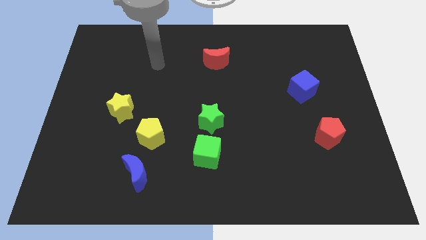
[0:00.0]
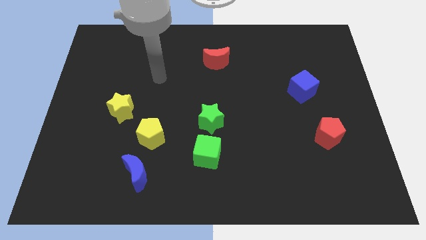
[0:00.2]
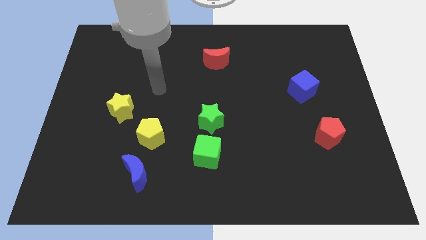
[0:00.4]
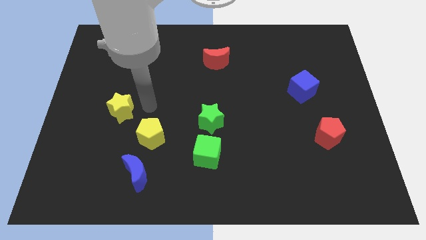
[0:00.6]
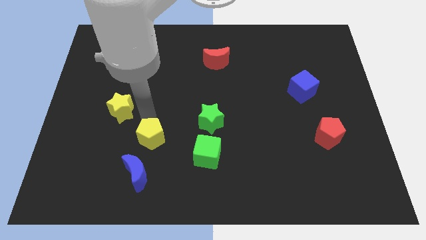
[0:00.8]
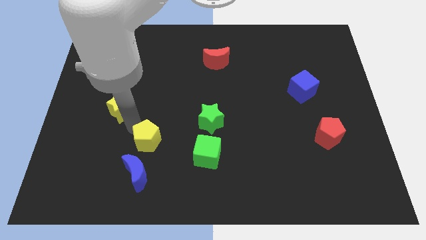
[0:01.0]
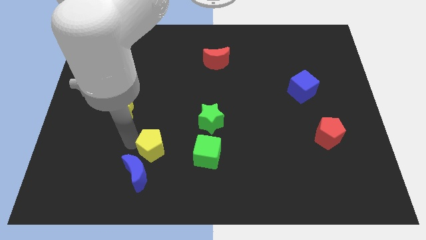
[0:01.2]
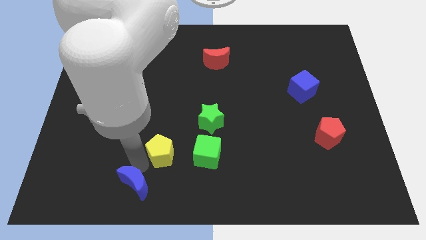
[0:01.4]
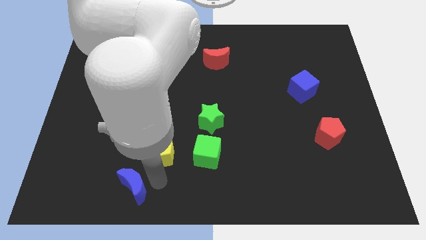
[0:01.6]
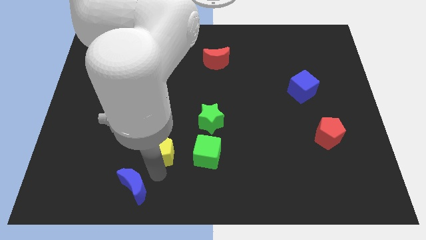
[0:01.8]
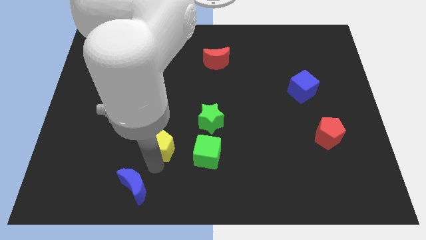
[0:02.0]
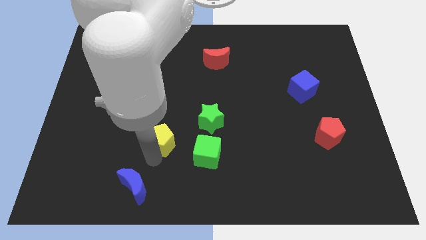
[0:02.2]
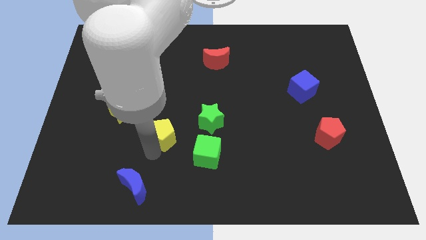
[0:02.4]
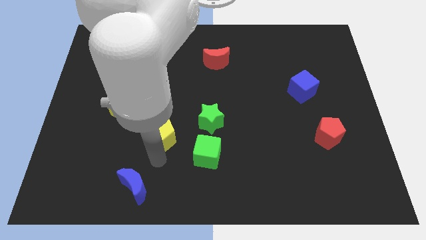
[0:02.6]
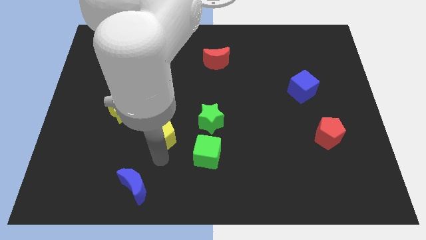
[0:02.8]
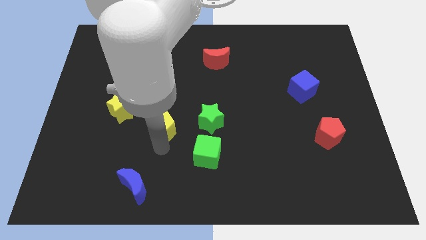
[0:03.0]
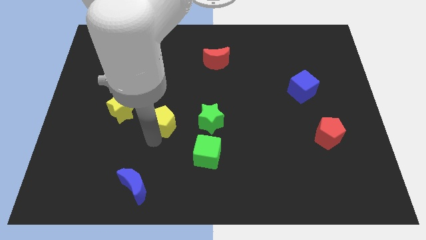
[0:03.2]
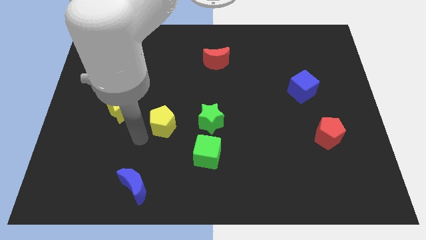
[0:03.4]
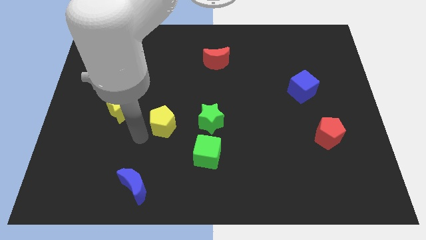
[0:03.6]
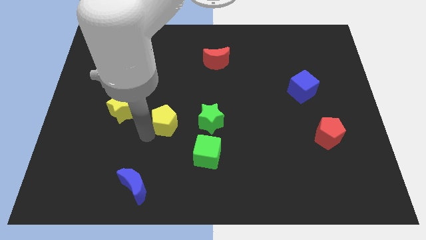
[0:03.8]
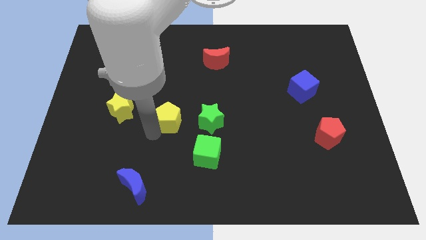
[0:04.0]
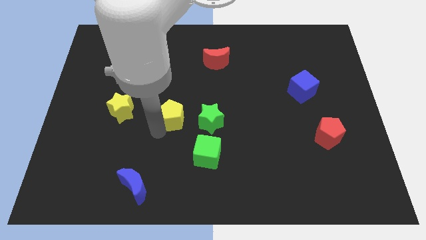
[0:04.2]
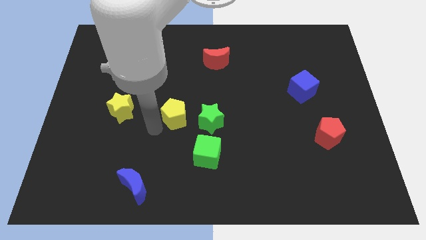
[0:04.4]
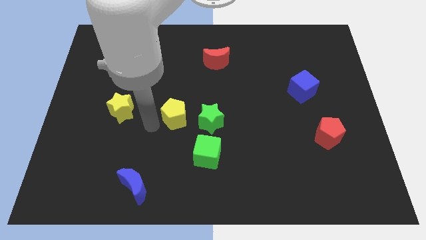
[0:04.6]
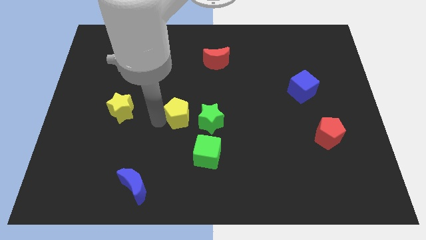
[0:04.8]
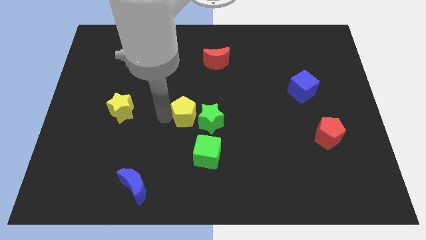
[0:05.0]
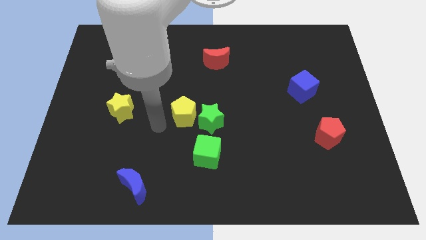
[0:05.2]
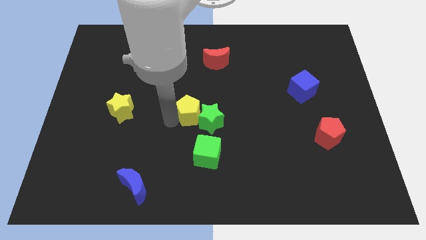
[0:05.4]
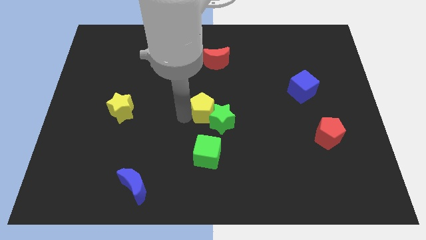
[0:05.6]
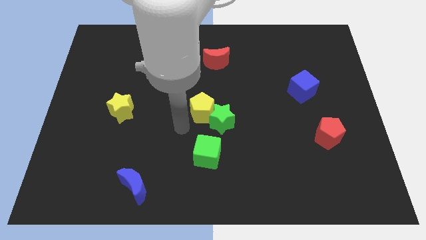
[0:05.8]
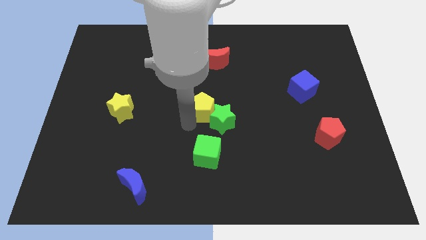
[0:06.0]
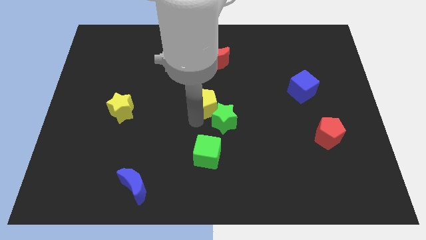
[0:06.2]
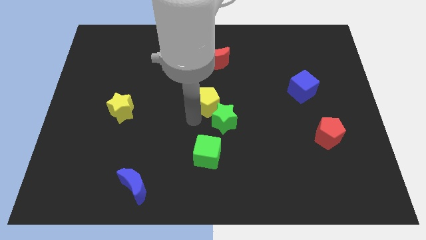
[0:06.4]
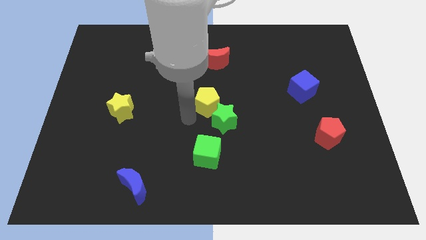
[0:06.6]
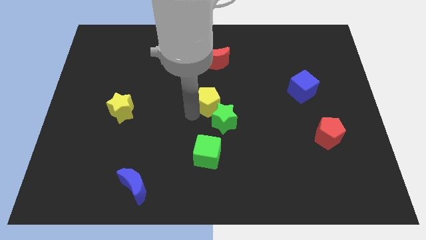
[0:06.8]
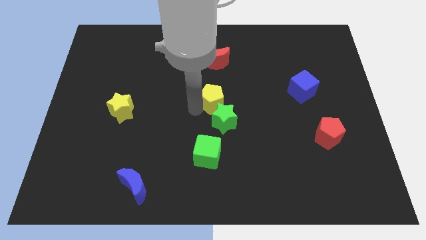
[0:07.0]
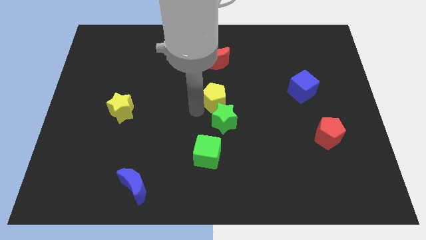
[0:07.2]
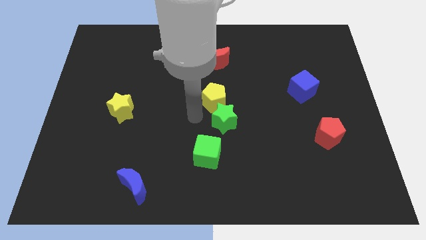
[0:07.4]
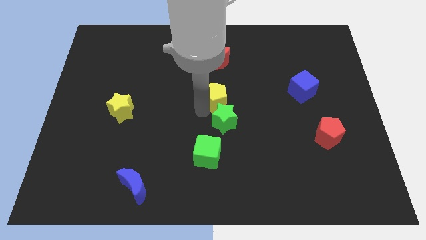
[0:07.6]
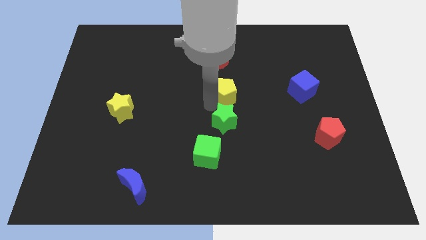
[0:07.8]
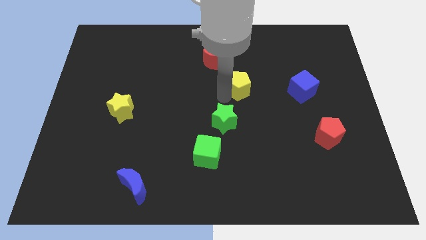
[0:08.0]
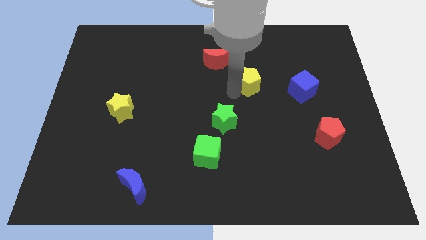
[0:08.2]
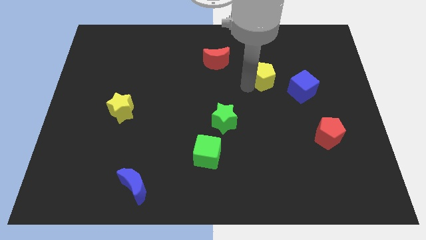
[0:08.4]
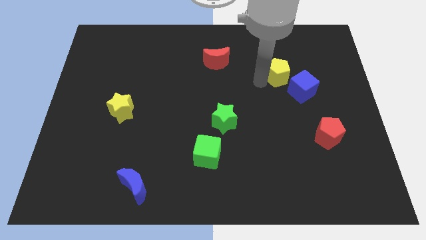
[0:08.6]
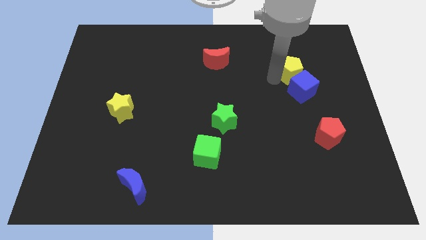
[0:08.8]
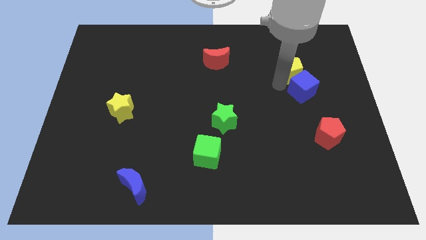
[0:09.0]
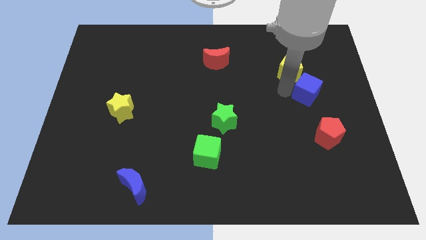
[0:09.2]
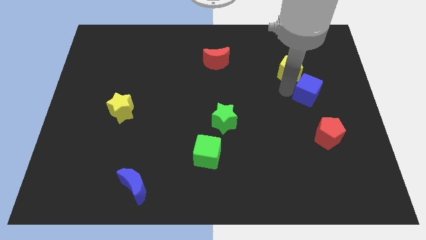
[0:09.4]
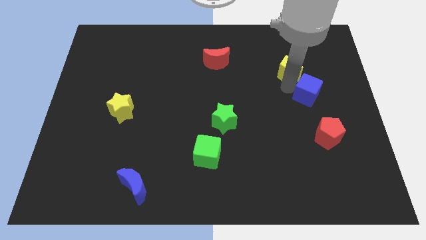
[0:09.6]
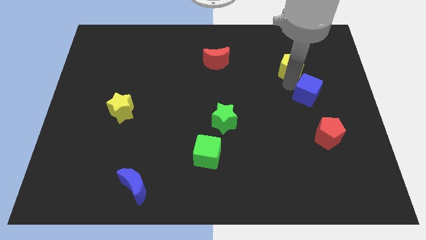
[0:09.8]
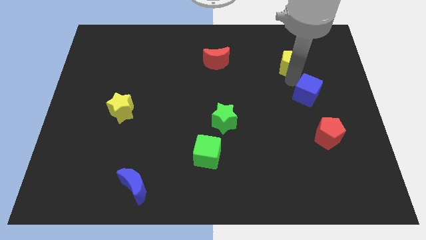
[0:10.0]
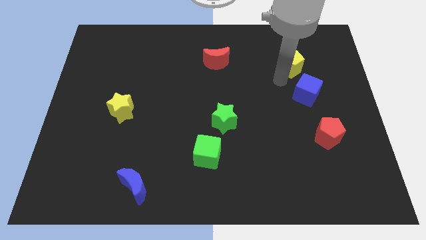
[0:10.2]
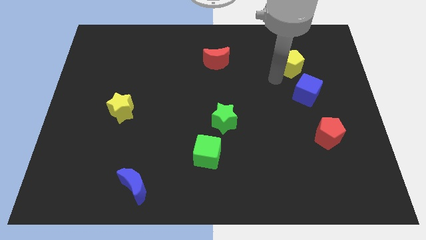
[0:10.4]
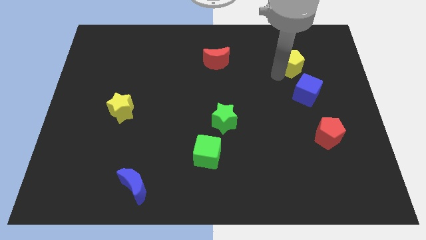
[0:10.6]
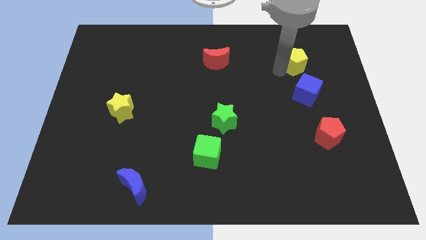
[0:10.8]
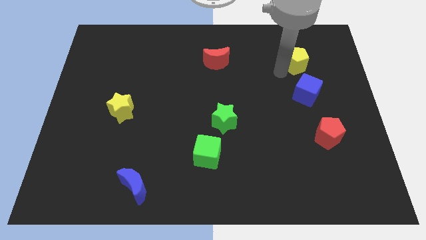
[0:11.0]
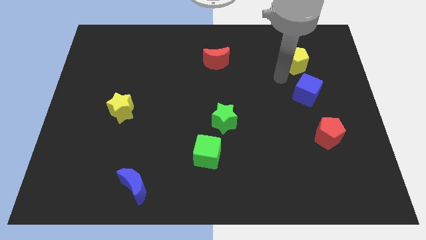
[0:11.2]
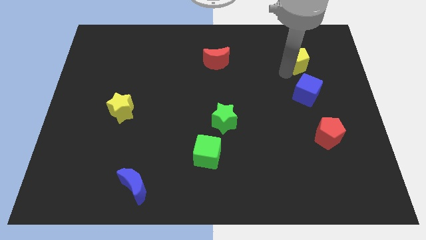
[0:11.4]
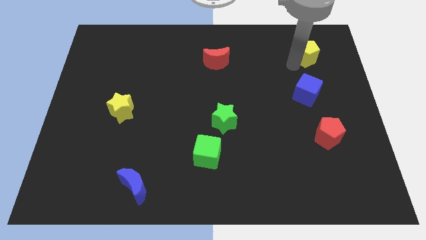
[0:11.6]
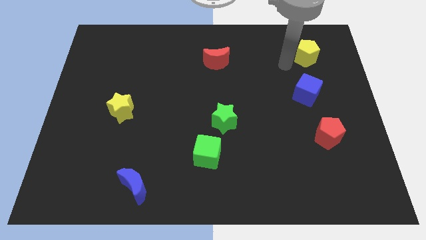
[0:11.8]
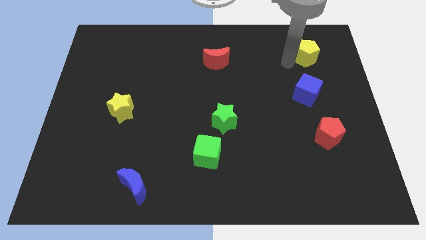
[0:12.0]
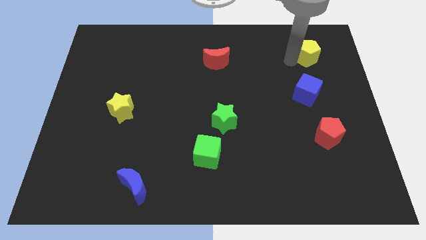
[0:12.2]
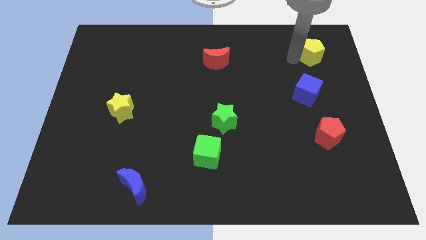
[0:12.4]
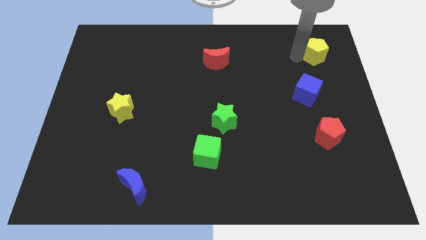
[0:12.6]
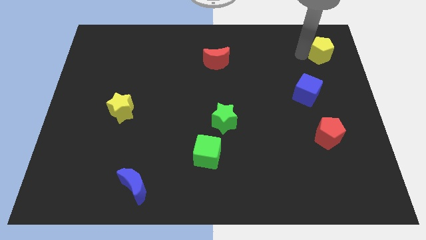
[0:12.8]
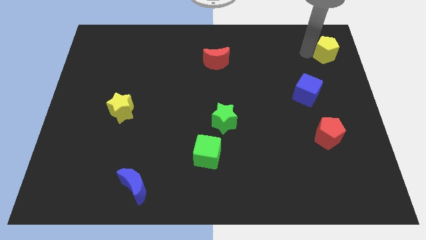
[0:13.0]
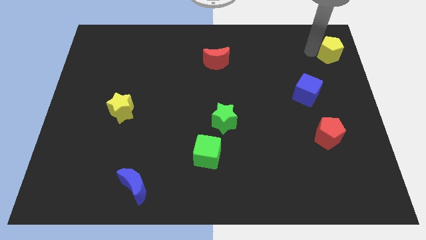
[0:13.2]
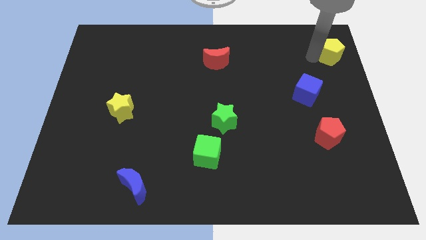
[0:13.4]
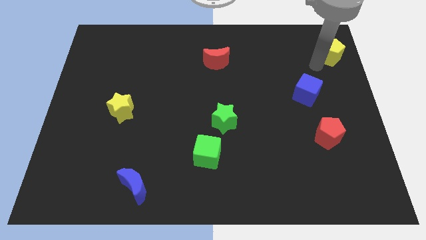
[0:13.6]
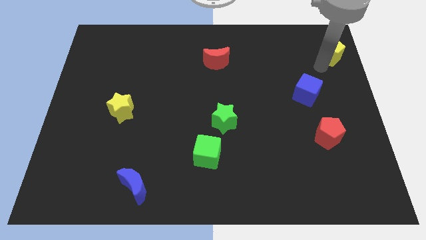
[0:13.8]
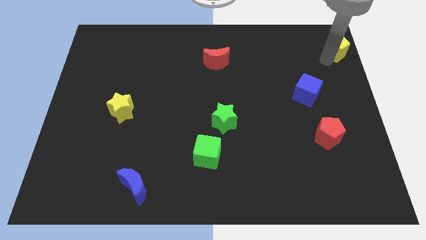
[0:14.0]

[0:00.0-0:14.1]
move the yellow pentagon to the upper right corner
